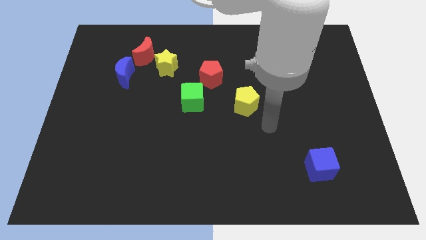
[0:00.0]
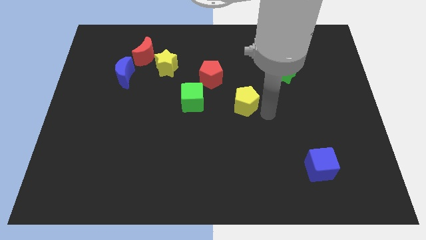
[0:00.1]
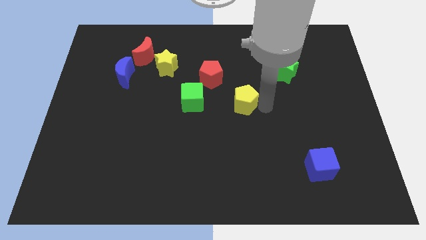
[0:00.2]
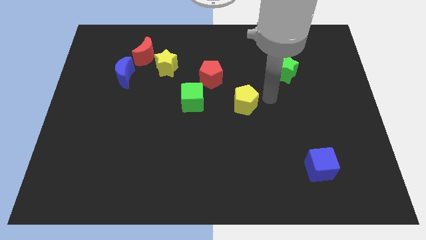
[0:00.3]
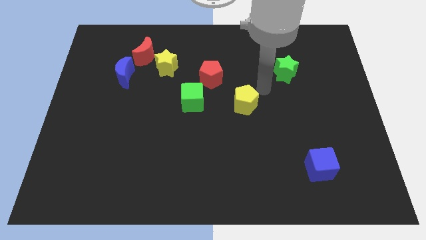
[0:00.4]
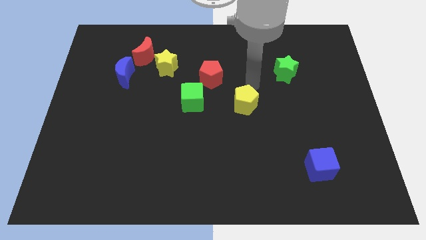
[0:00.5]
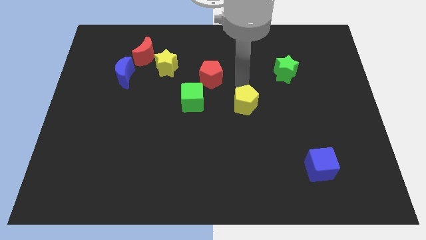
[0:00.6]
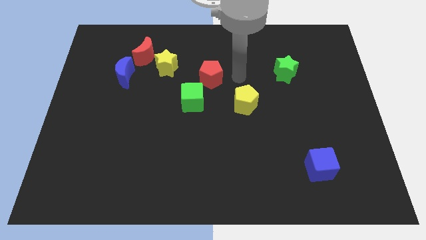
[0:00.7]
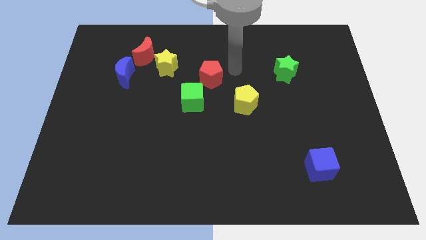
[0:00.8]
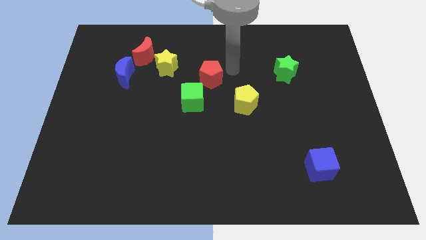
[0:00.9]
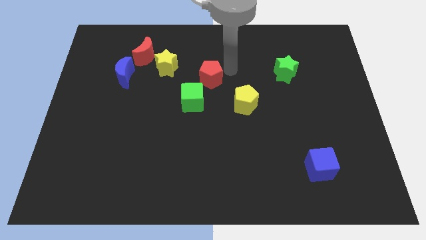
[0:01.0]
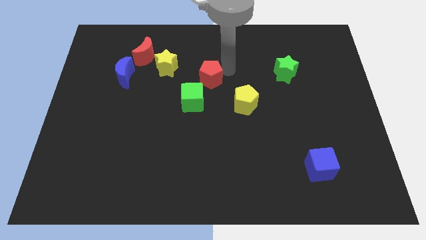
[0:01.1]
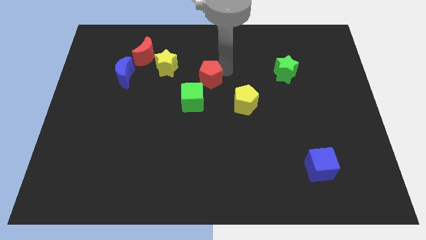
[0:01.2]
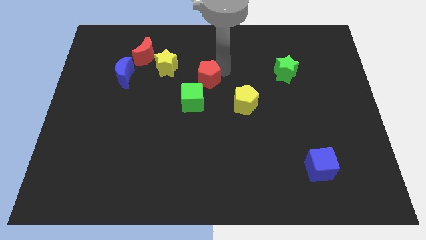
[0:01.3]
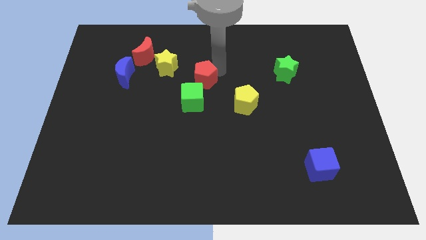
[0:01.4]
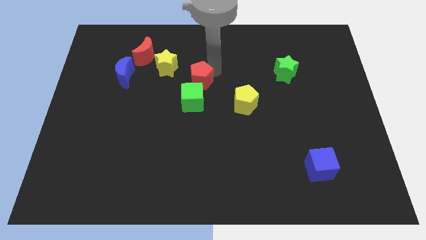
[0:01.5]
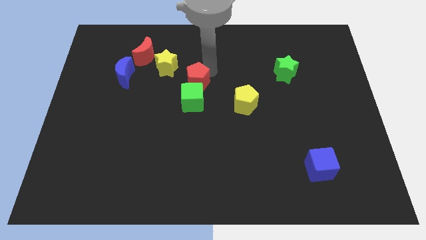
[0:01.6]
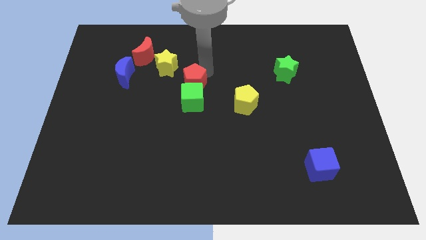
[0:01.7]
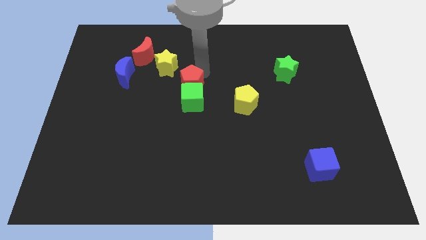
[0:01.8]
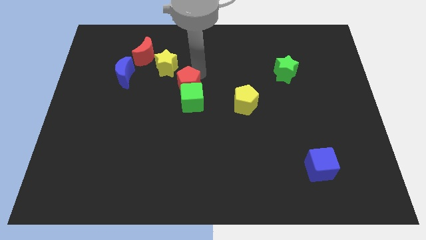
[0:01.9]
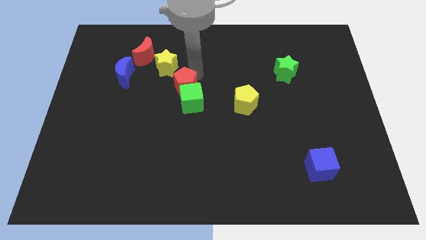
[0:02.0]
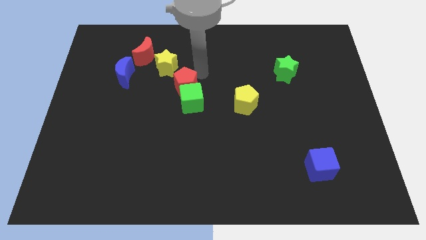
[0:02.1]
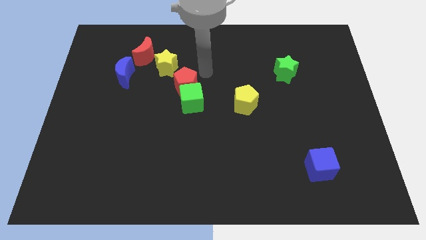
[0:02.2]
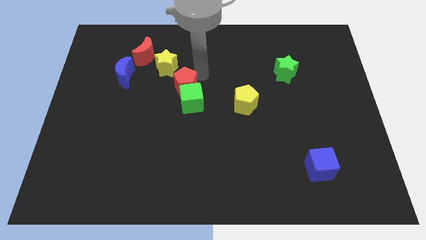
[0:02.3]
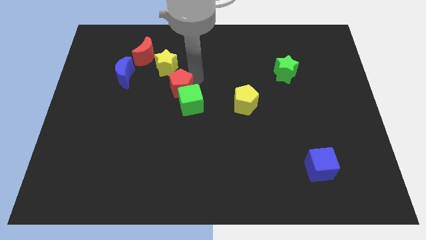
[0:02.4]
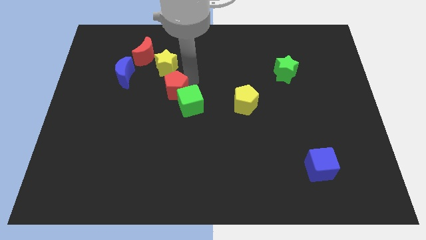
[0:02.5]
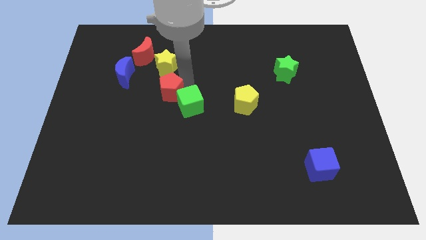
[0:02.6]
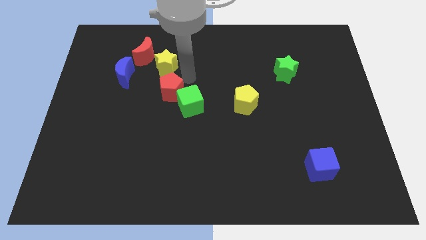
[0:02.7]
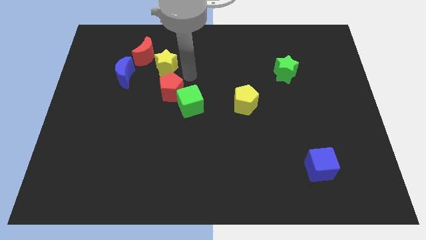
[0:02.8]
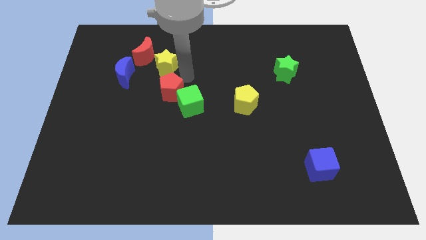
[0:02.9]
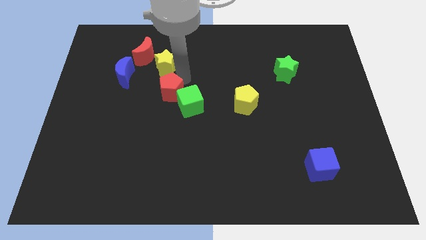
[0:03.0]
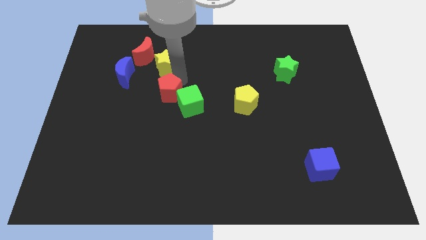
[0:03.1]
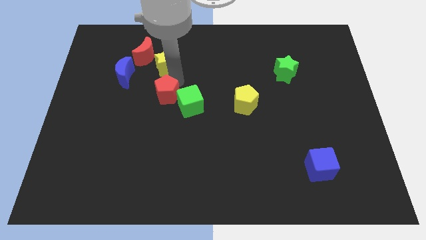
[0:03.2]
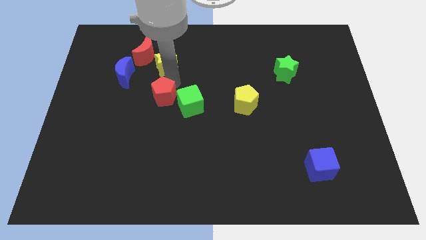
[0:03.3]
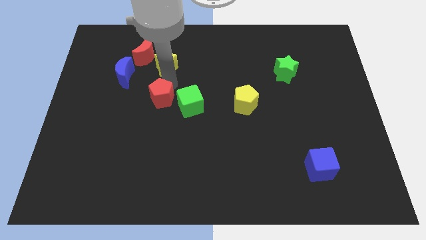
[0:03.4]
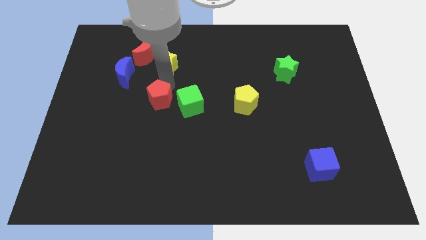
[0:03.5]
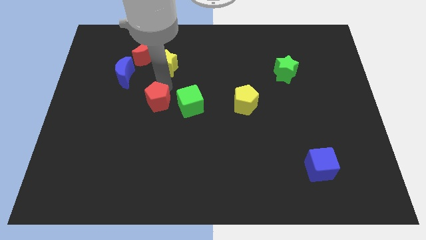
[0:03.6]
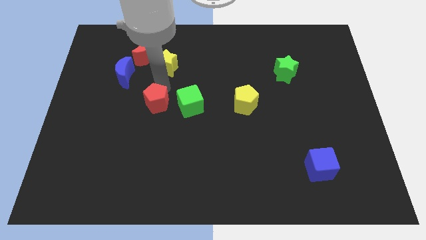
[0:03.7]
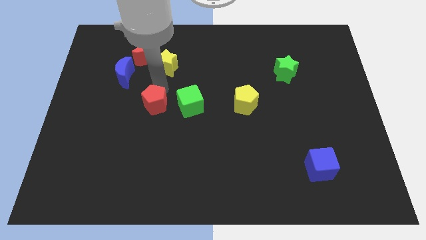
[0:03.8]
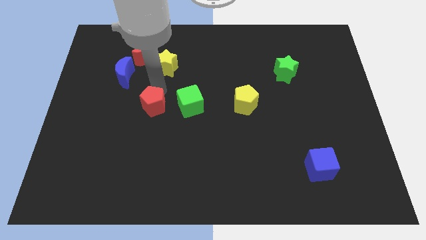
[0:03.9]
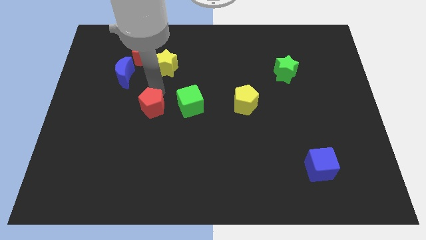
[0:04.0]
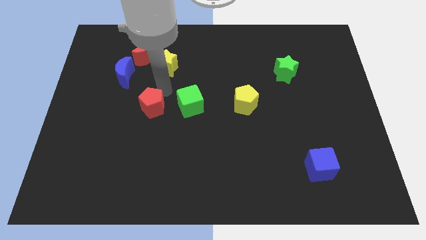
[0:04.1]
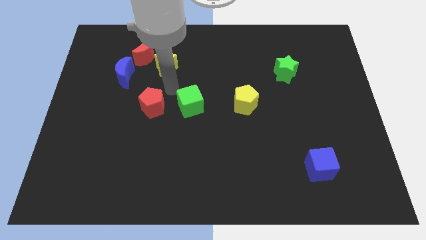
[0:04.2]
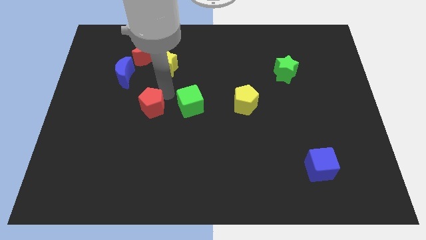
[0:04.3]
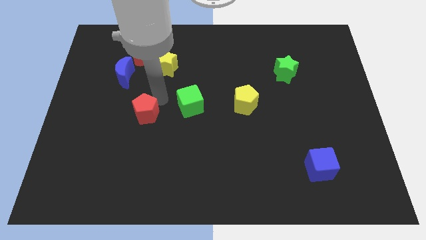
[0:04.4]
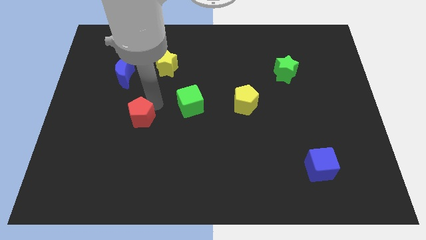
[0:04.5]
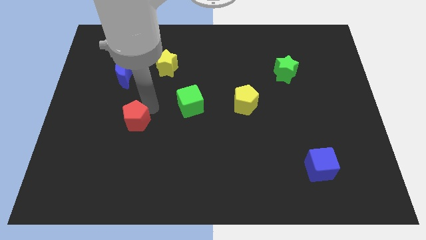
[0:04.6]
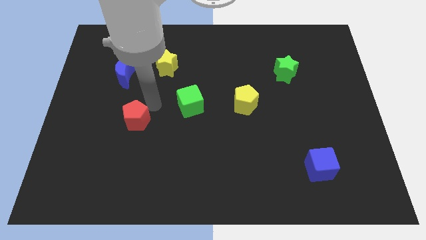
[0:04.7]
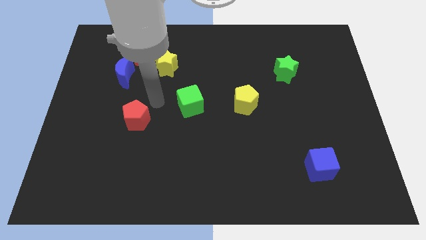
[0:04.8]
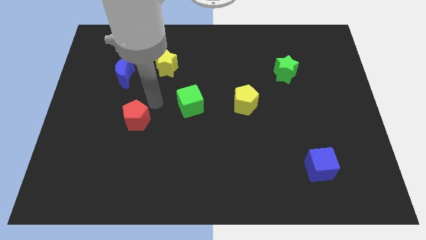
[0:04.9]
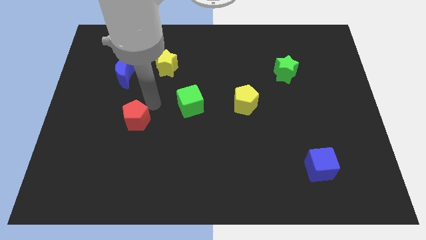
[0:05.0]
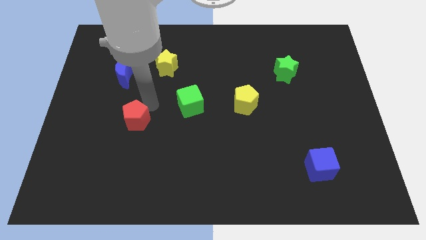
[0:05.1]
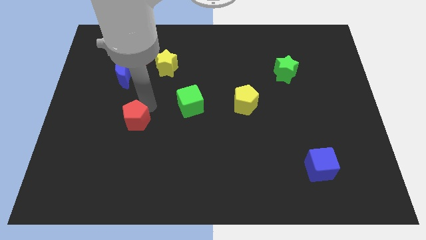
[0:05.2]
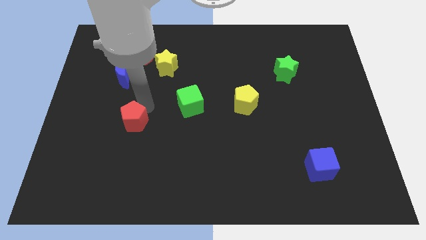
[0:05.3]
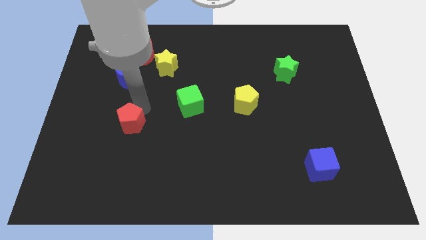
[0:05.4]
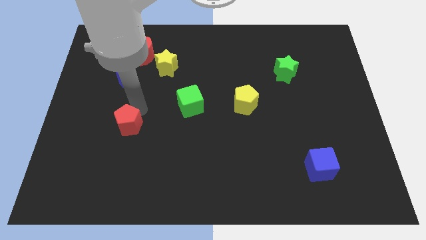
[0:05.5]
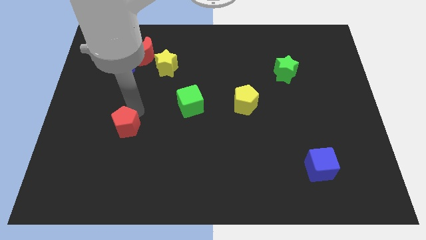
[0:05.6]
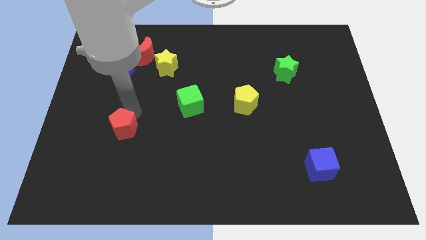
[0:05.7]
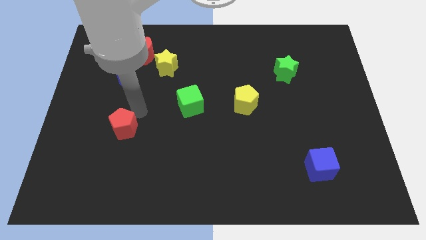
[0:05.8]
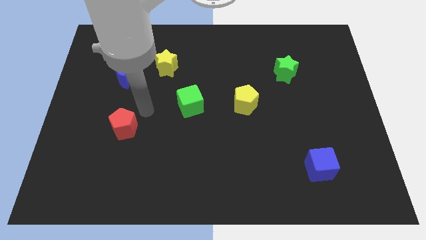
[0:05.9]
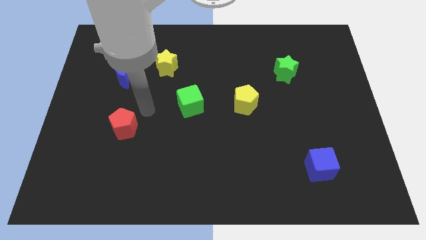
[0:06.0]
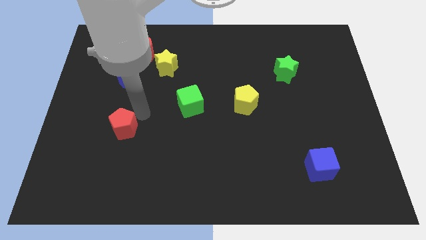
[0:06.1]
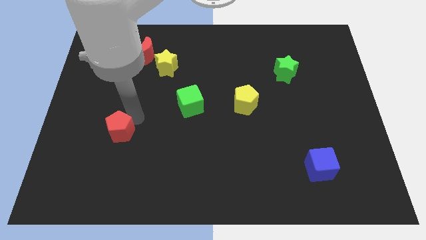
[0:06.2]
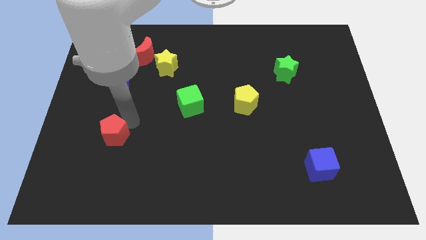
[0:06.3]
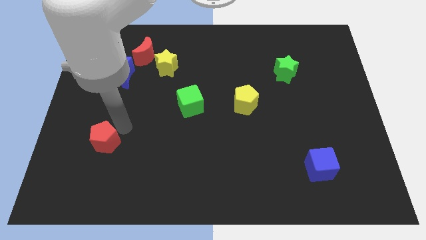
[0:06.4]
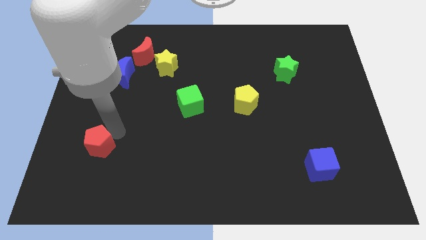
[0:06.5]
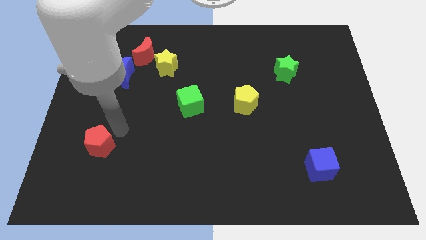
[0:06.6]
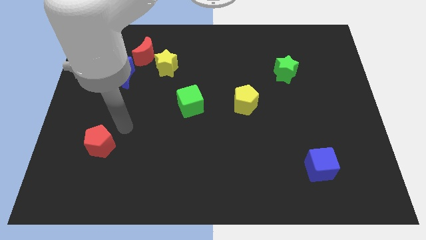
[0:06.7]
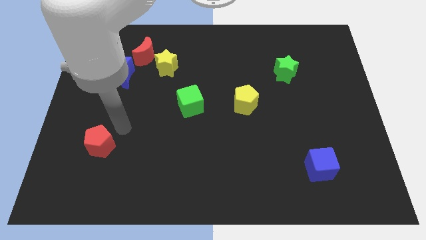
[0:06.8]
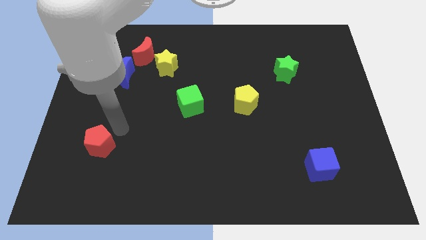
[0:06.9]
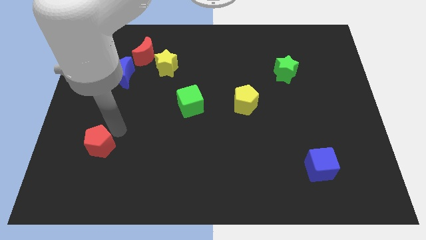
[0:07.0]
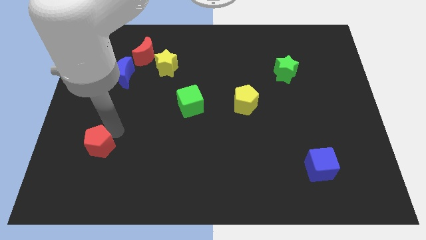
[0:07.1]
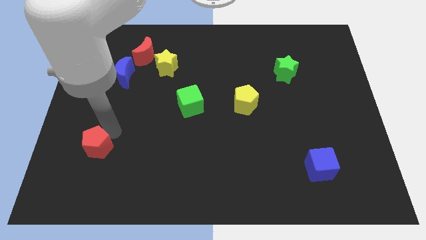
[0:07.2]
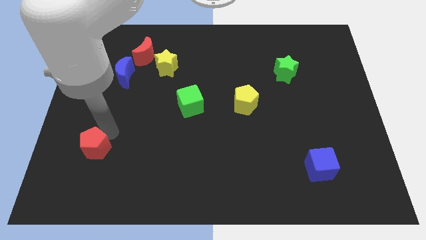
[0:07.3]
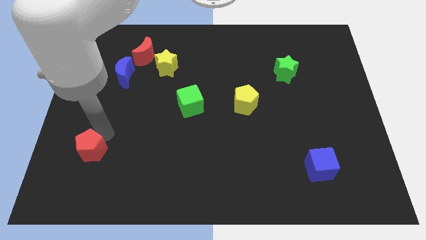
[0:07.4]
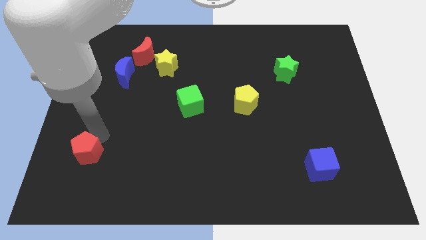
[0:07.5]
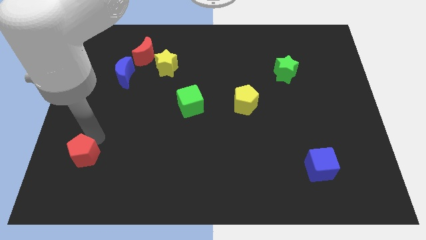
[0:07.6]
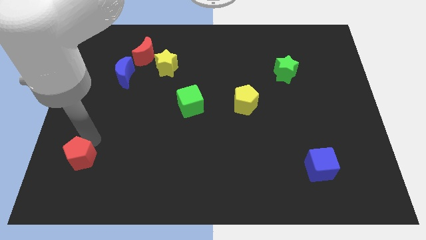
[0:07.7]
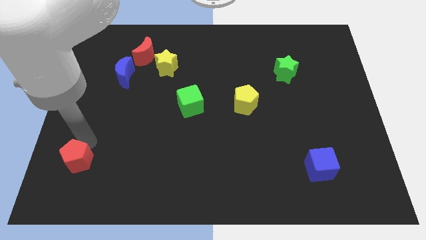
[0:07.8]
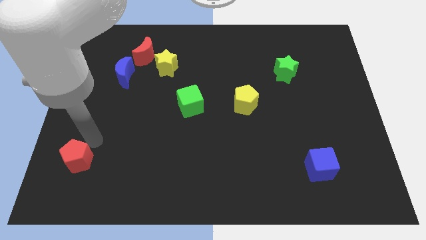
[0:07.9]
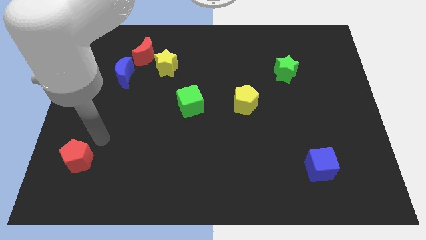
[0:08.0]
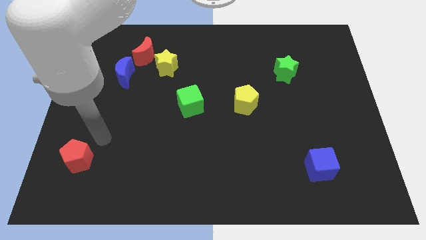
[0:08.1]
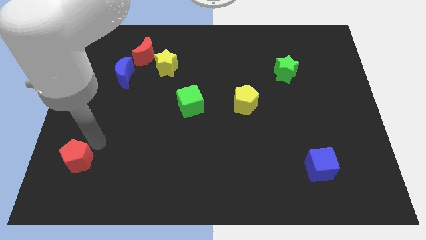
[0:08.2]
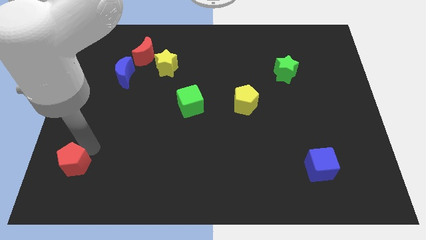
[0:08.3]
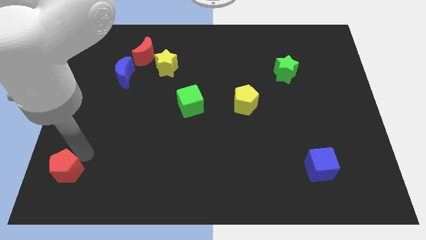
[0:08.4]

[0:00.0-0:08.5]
slide the red pentagon to the bottom left corner
